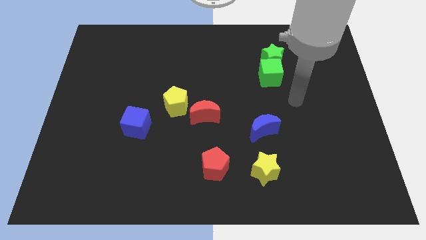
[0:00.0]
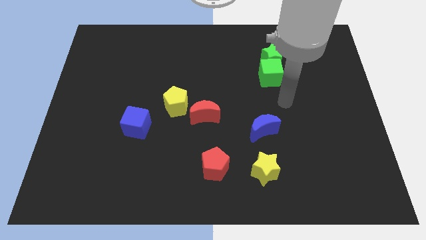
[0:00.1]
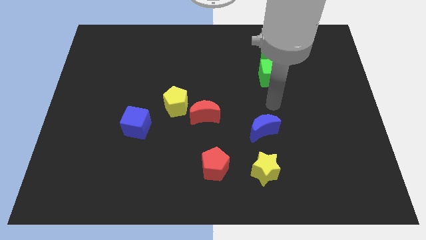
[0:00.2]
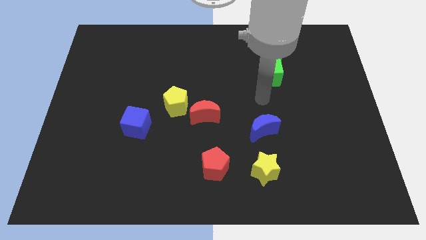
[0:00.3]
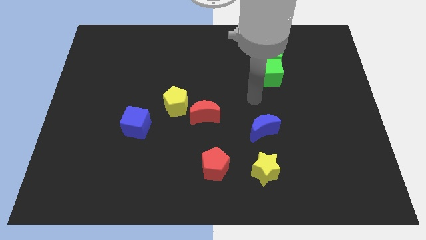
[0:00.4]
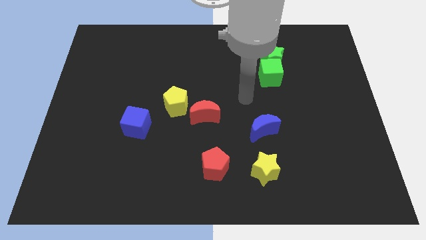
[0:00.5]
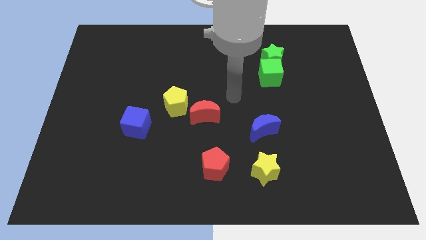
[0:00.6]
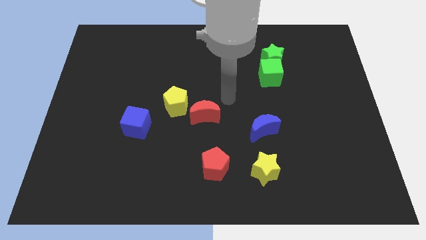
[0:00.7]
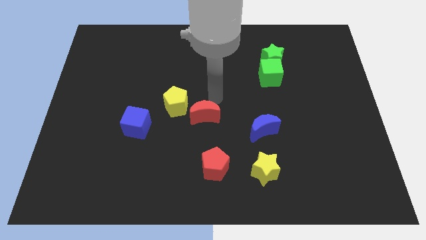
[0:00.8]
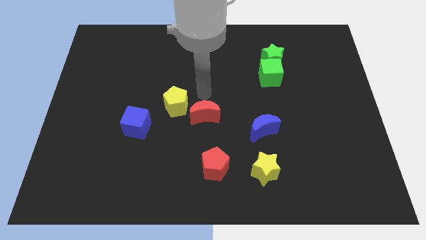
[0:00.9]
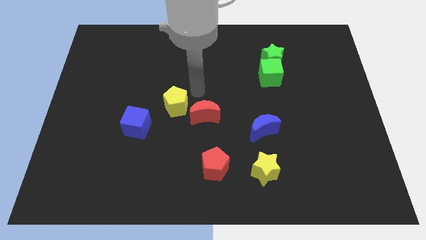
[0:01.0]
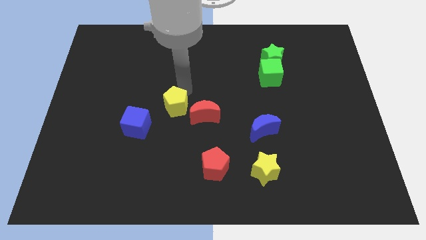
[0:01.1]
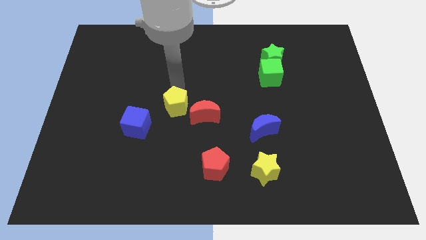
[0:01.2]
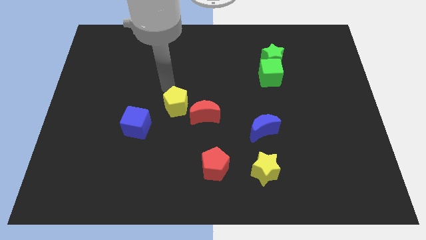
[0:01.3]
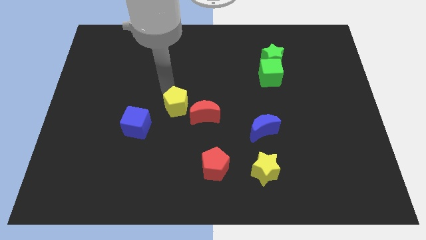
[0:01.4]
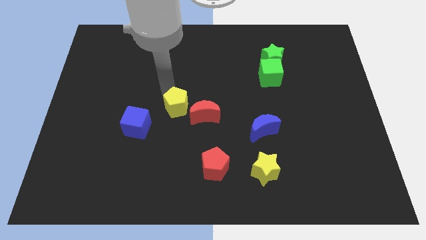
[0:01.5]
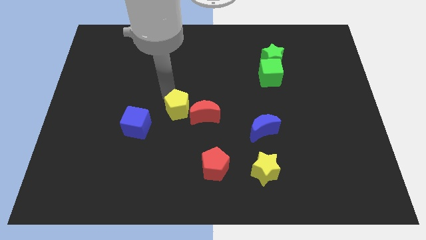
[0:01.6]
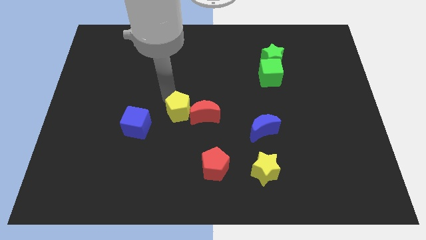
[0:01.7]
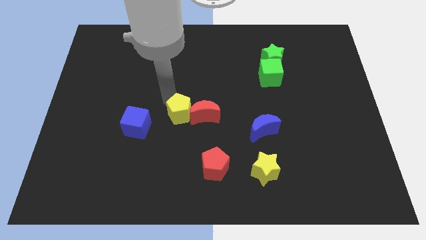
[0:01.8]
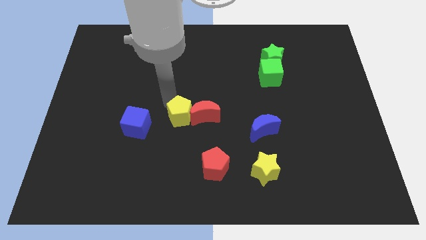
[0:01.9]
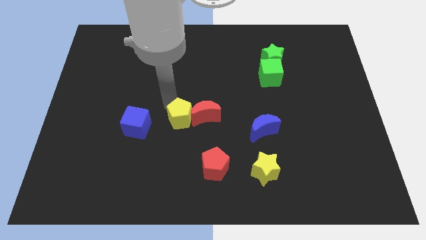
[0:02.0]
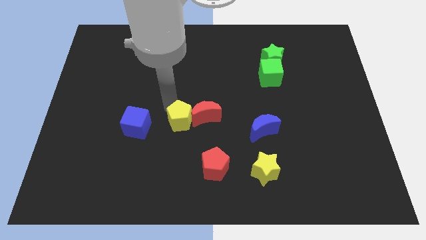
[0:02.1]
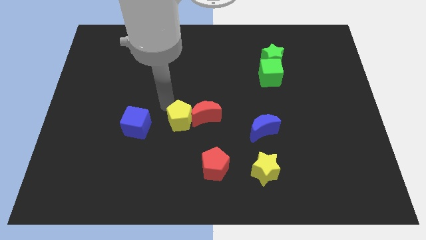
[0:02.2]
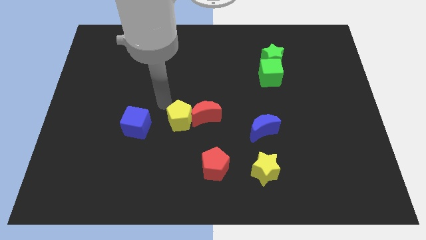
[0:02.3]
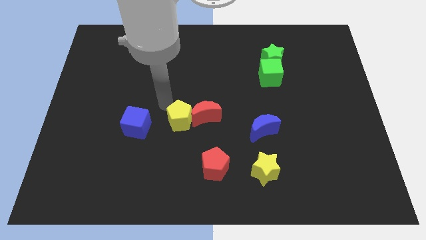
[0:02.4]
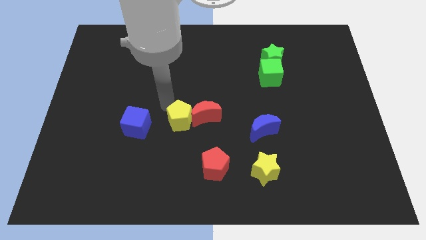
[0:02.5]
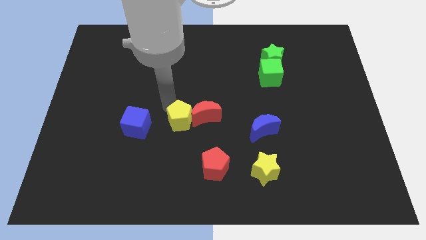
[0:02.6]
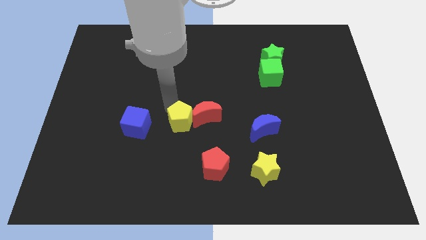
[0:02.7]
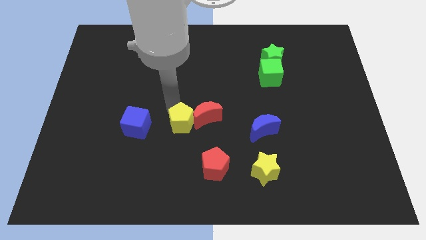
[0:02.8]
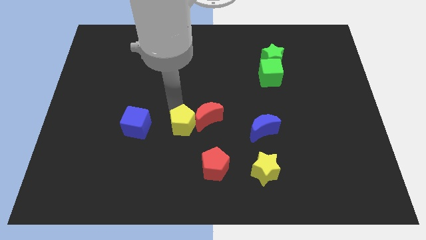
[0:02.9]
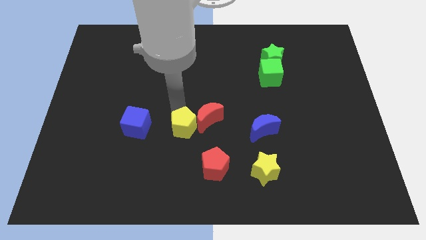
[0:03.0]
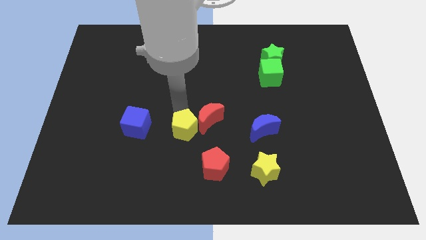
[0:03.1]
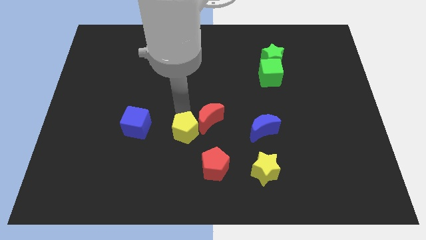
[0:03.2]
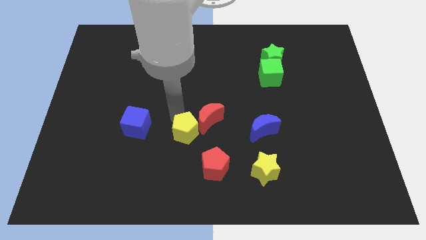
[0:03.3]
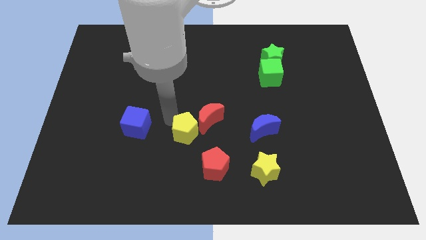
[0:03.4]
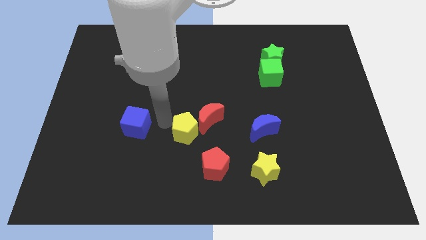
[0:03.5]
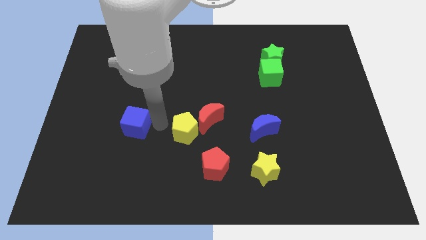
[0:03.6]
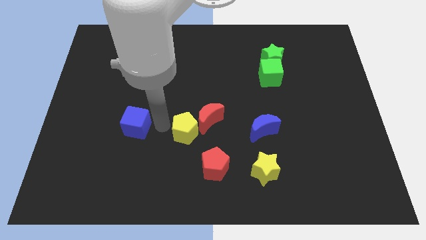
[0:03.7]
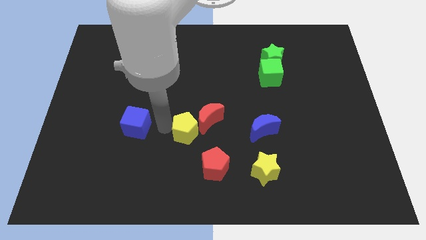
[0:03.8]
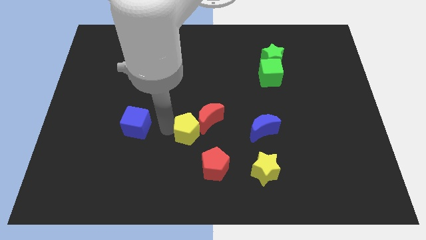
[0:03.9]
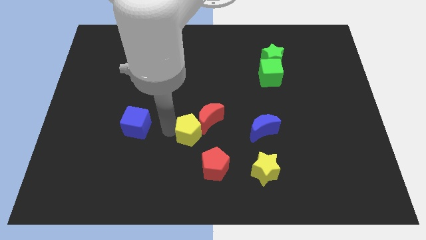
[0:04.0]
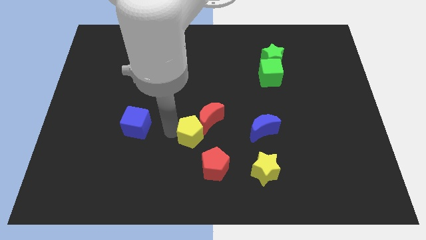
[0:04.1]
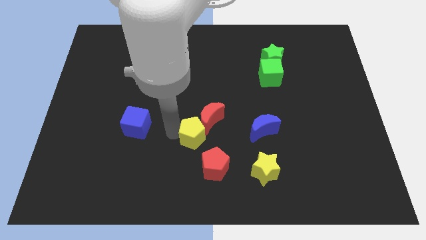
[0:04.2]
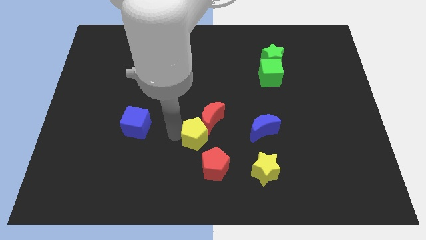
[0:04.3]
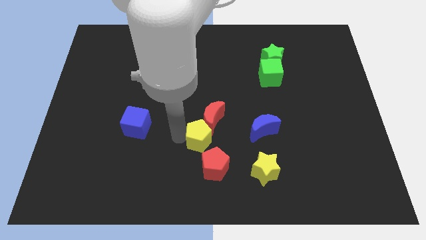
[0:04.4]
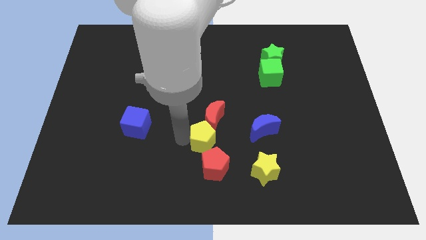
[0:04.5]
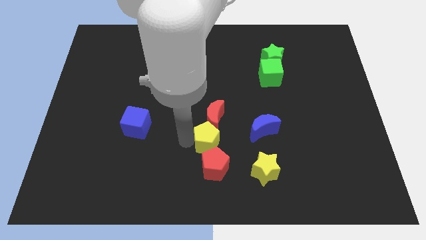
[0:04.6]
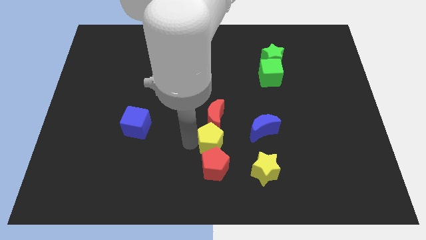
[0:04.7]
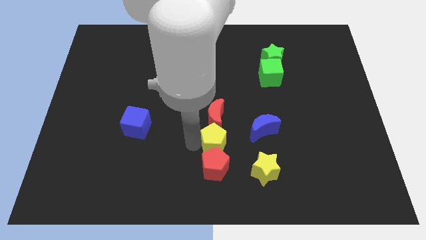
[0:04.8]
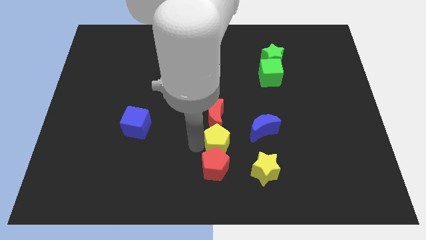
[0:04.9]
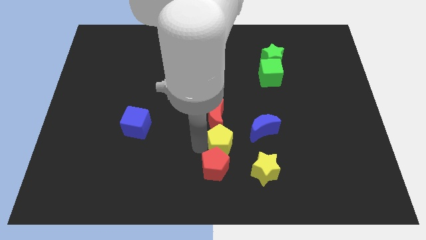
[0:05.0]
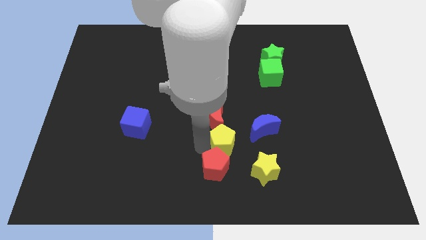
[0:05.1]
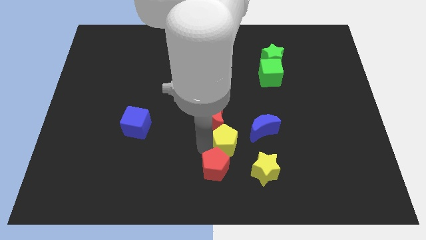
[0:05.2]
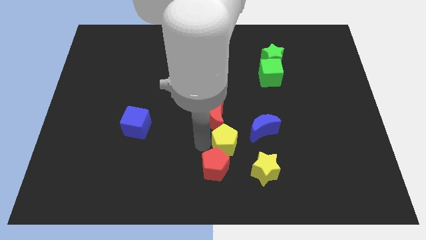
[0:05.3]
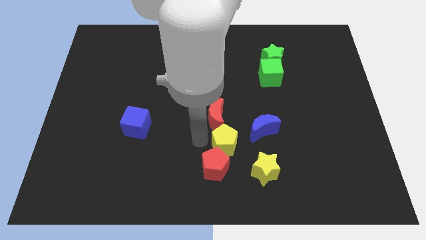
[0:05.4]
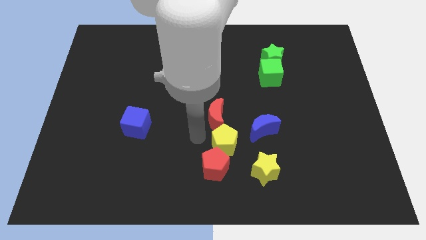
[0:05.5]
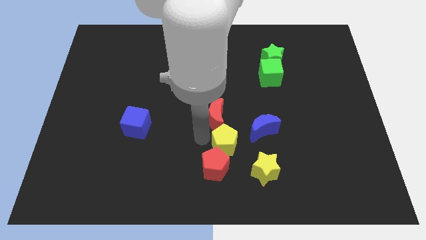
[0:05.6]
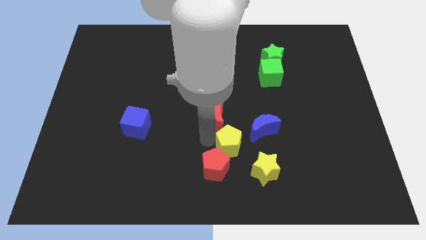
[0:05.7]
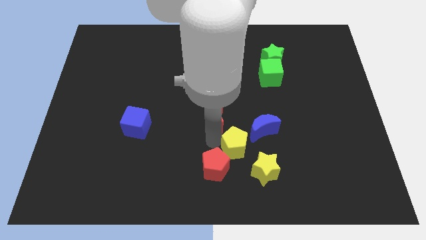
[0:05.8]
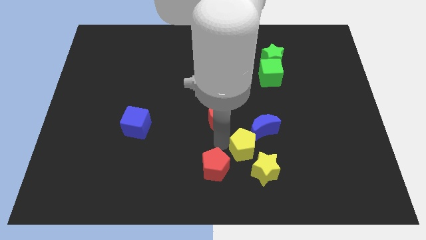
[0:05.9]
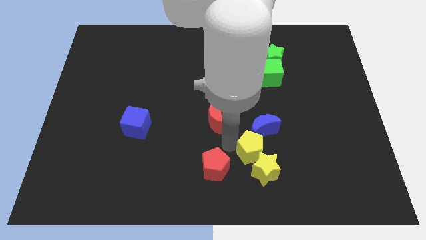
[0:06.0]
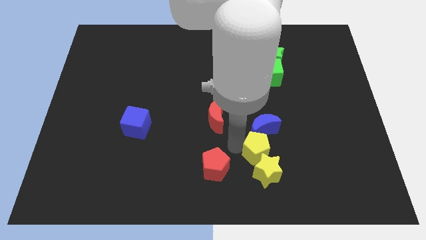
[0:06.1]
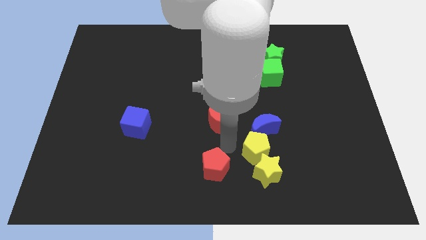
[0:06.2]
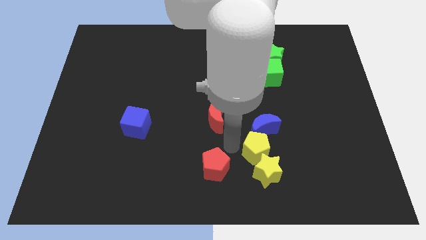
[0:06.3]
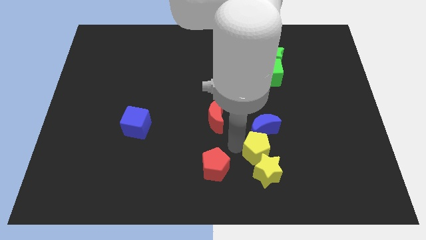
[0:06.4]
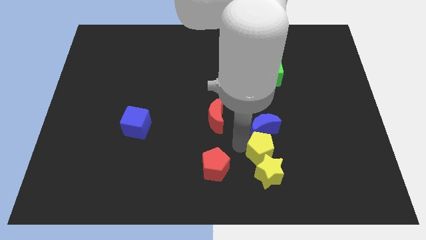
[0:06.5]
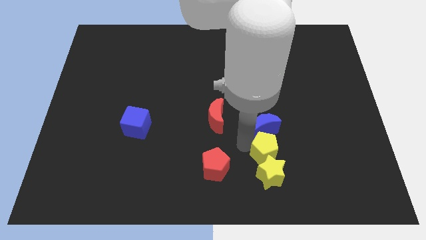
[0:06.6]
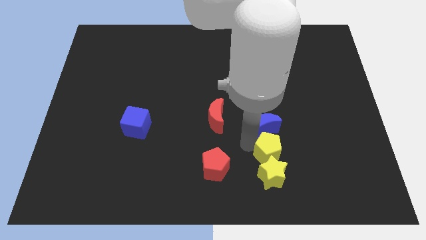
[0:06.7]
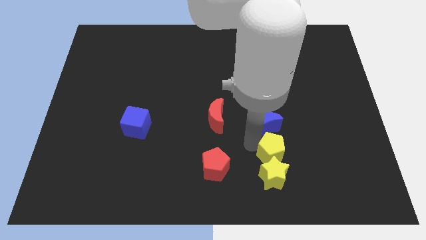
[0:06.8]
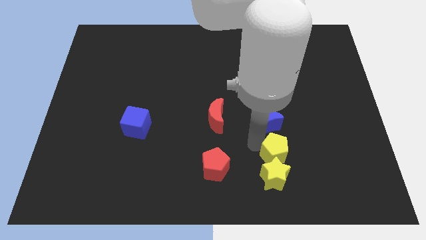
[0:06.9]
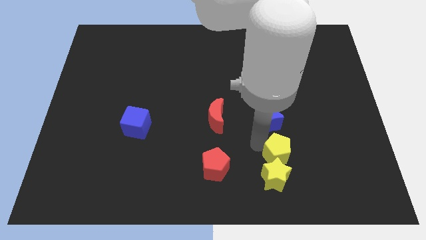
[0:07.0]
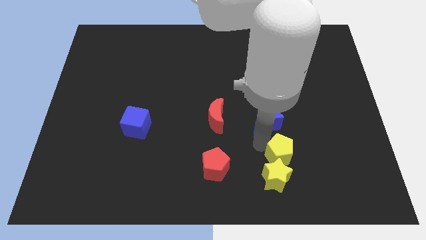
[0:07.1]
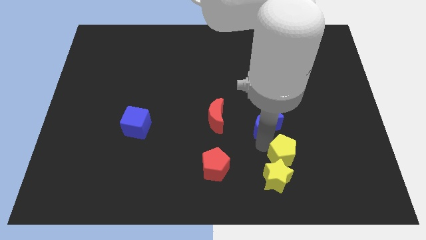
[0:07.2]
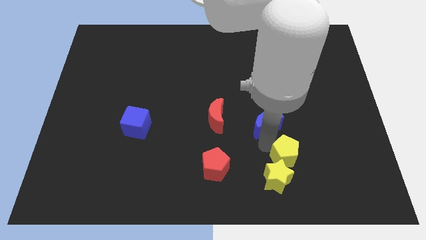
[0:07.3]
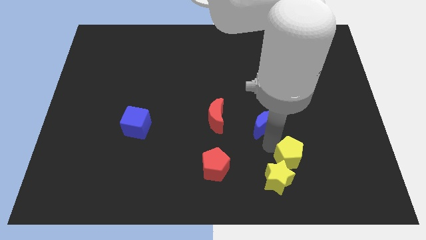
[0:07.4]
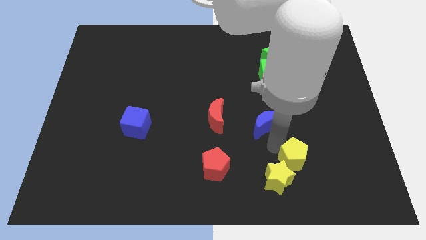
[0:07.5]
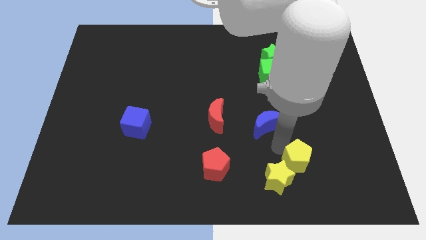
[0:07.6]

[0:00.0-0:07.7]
slide the yellow pentagon to the right of the yellow star

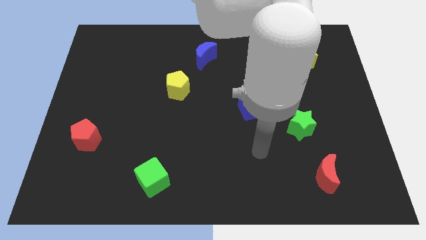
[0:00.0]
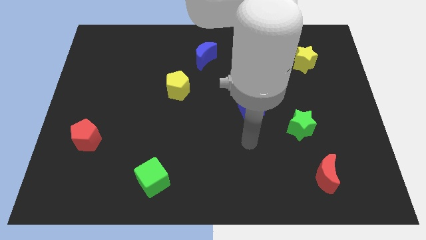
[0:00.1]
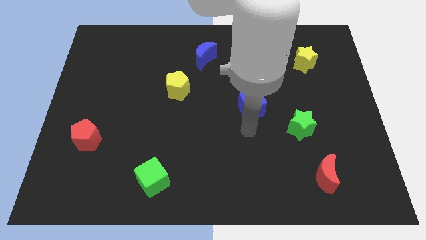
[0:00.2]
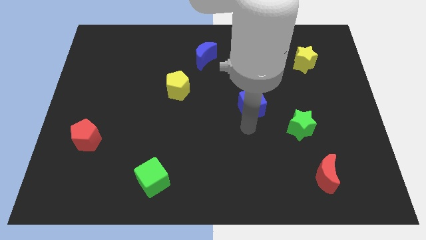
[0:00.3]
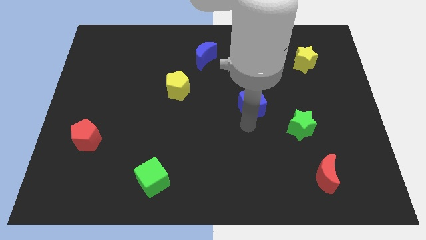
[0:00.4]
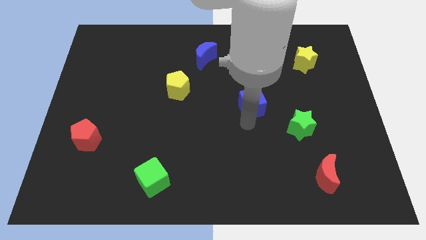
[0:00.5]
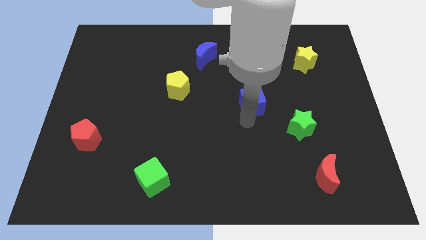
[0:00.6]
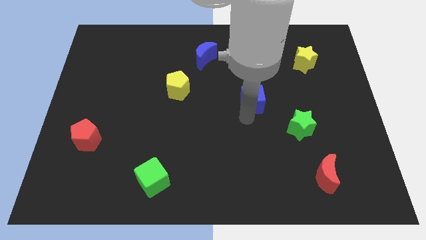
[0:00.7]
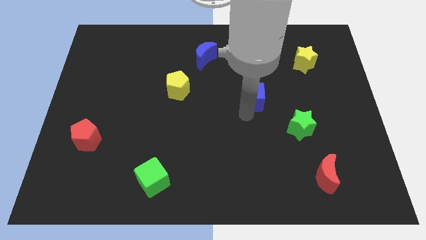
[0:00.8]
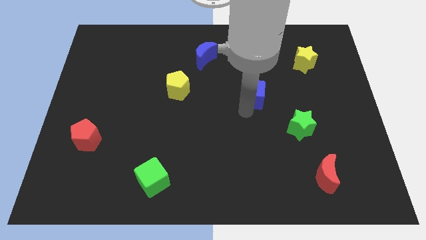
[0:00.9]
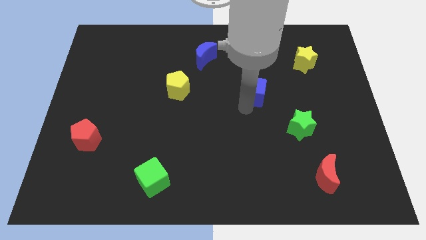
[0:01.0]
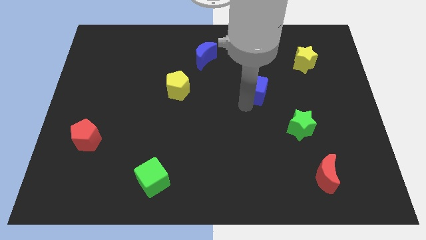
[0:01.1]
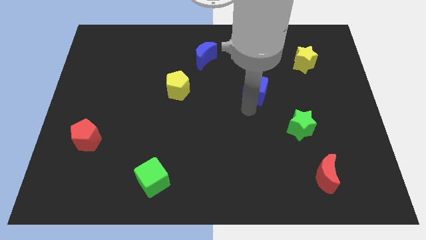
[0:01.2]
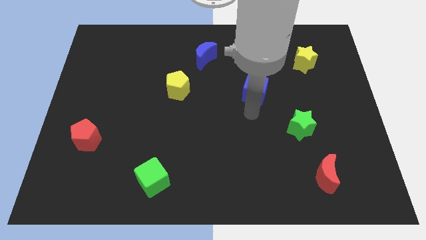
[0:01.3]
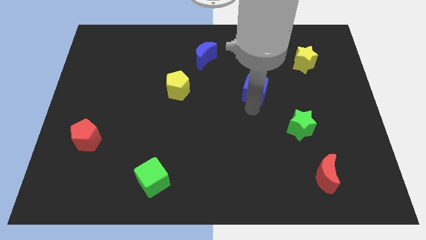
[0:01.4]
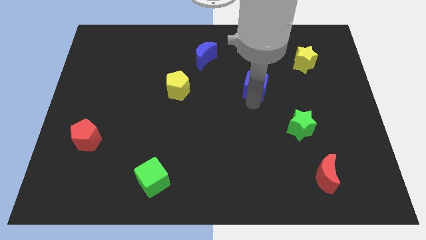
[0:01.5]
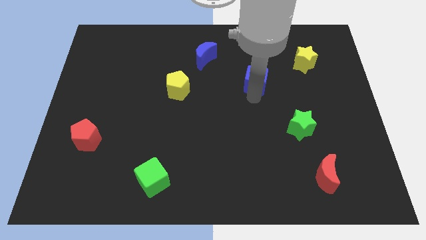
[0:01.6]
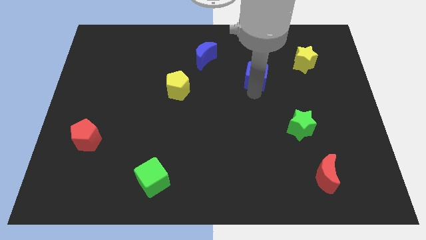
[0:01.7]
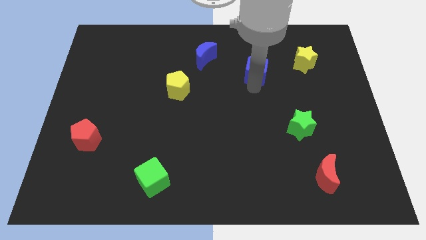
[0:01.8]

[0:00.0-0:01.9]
move the blue cube to the left of the yellow star
